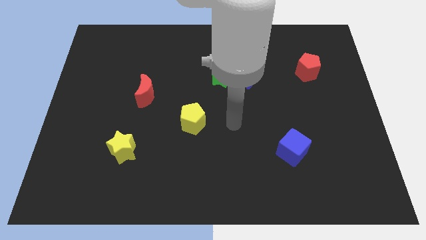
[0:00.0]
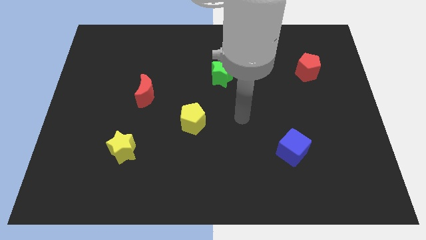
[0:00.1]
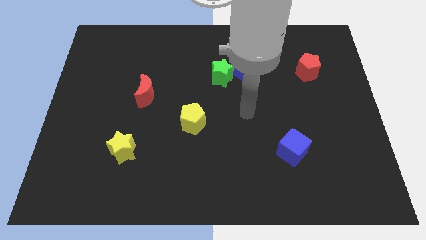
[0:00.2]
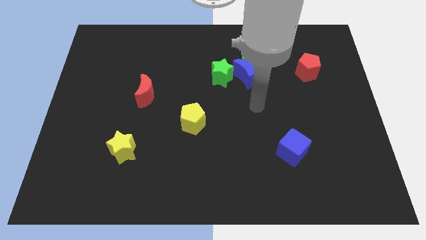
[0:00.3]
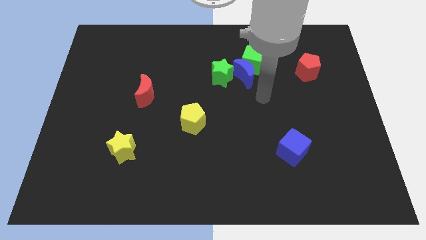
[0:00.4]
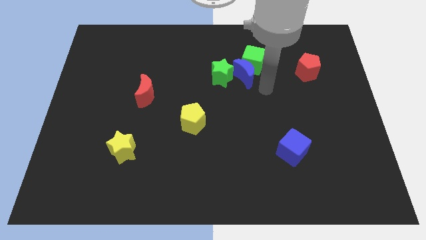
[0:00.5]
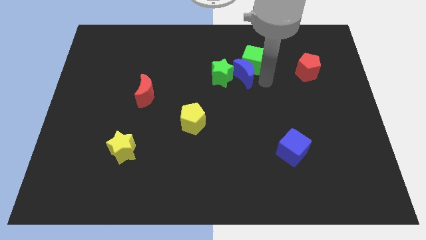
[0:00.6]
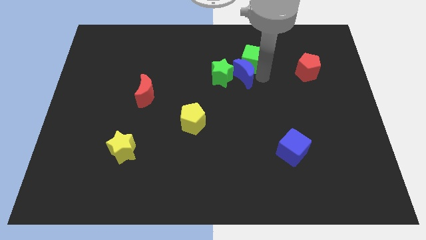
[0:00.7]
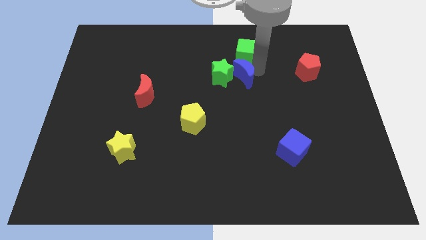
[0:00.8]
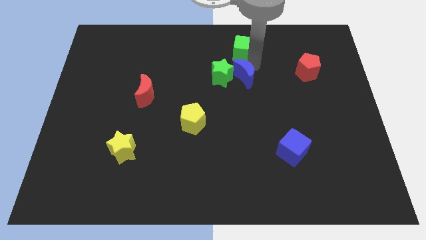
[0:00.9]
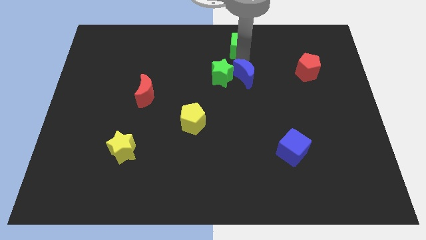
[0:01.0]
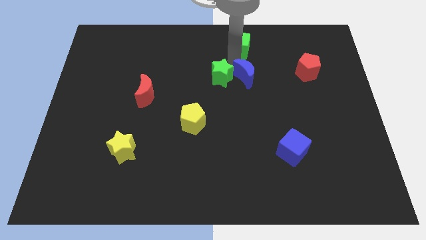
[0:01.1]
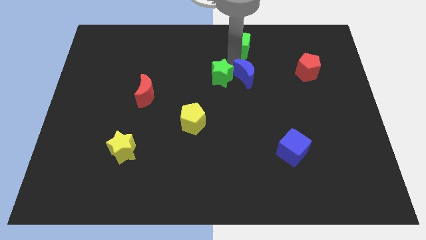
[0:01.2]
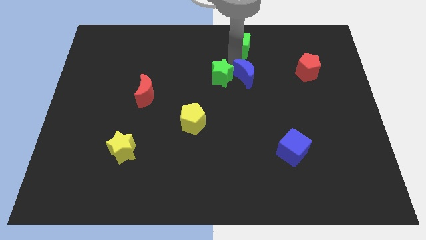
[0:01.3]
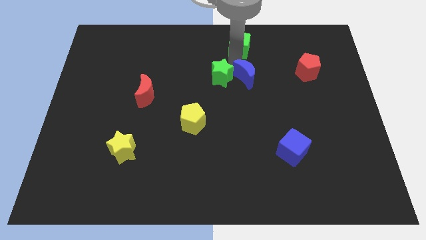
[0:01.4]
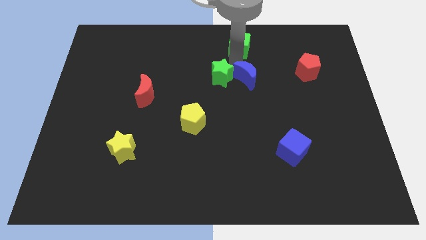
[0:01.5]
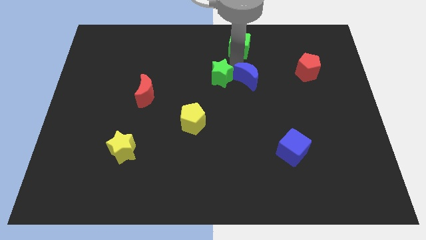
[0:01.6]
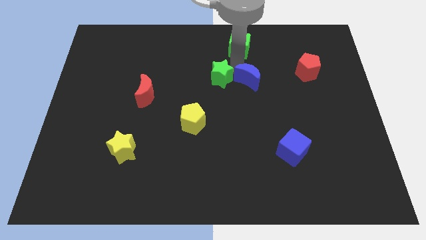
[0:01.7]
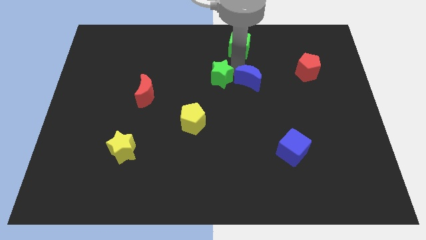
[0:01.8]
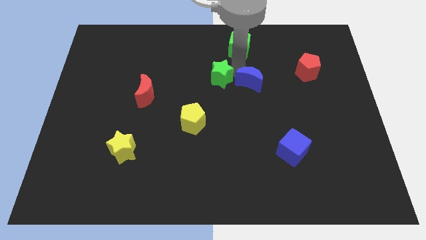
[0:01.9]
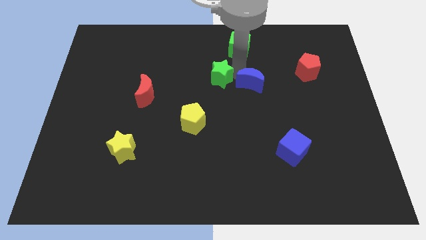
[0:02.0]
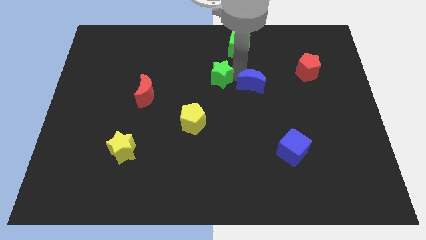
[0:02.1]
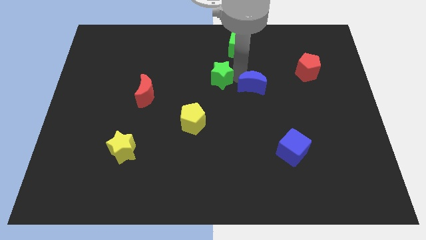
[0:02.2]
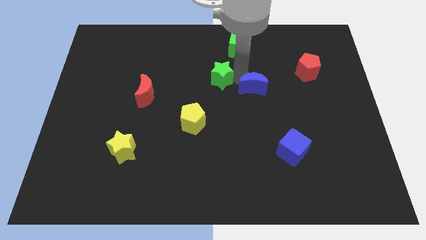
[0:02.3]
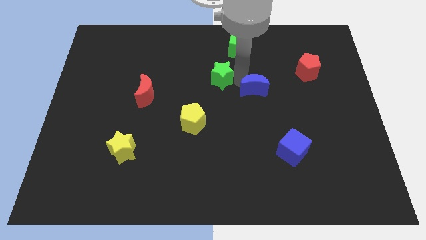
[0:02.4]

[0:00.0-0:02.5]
pull the blue moon apart from the green cube and green star

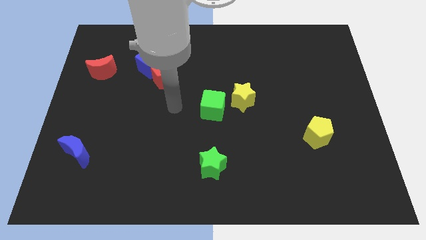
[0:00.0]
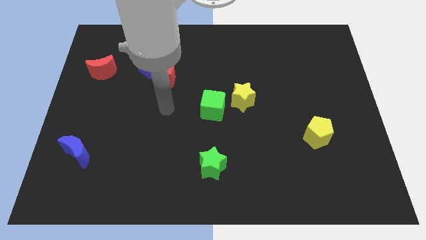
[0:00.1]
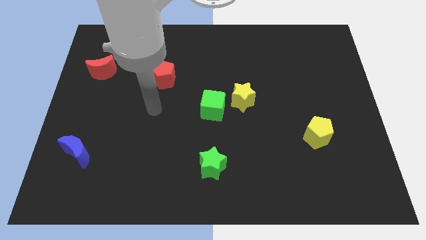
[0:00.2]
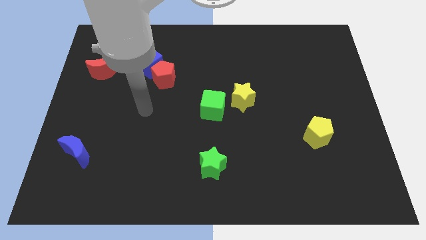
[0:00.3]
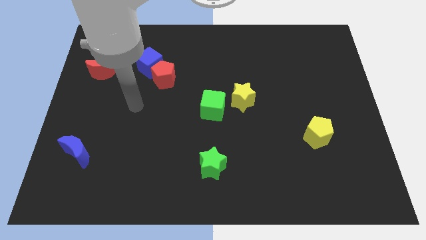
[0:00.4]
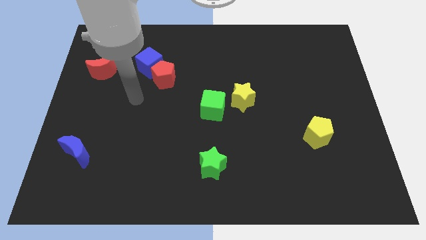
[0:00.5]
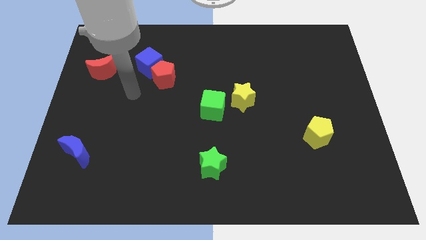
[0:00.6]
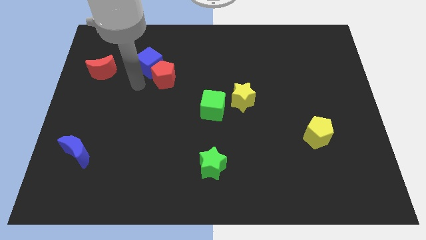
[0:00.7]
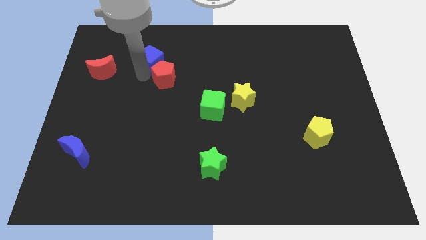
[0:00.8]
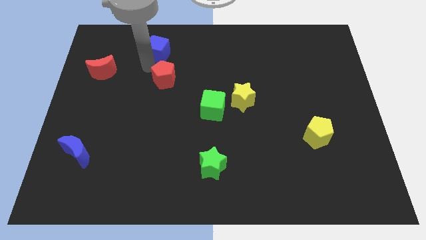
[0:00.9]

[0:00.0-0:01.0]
pull the red pentagon apart from the blue cube

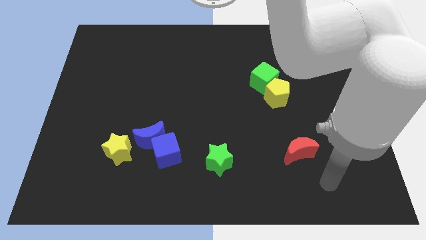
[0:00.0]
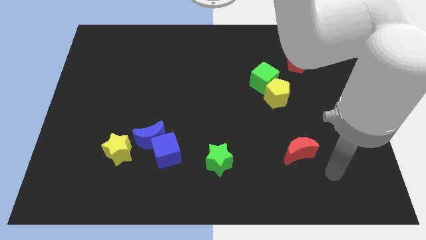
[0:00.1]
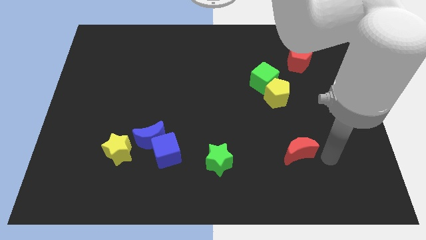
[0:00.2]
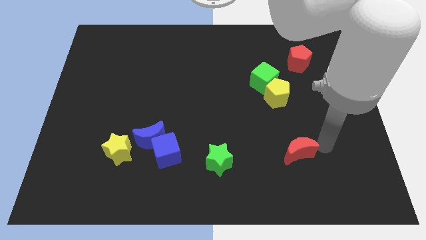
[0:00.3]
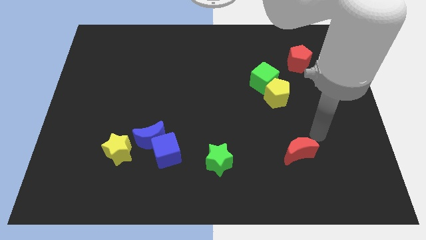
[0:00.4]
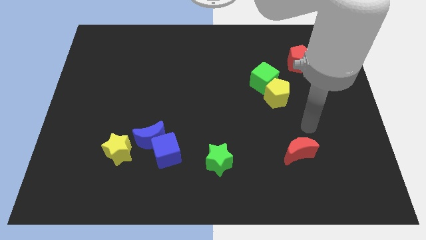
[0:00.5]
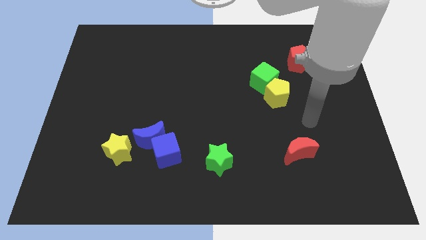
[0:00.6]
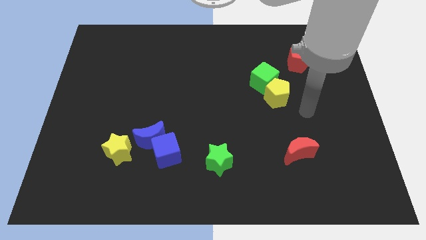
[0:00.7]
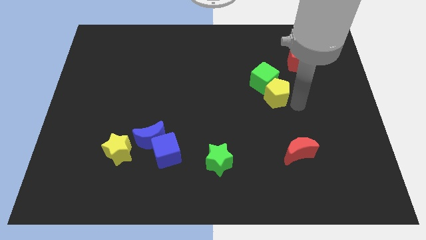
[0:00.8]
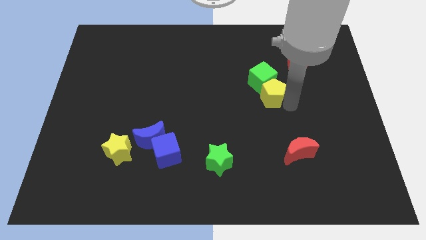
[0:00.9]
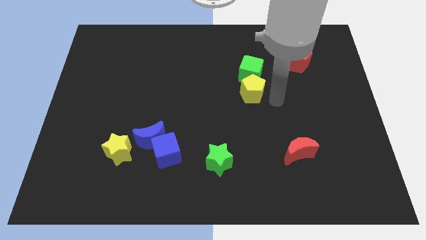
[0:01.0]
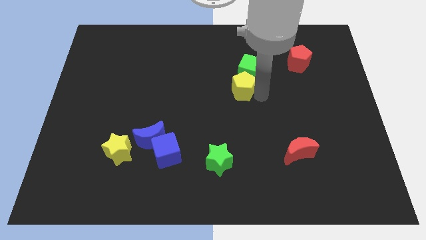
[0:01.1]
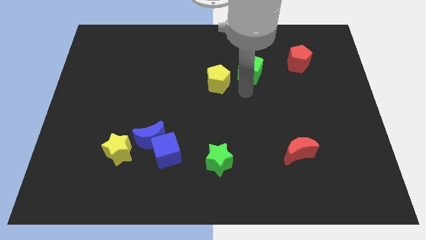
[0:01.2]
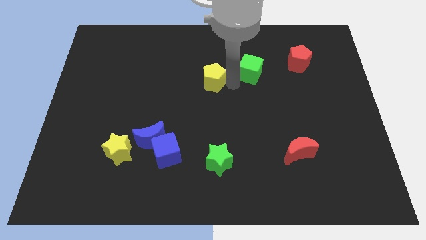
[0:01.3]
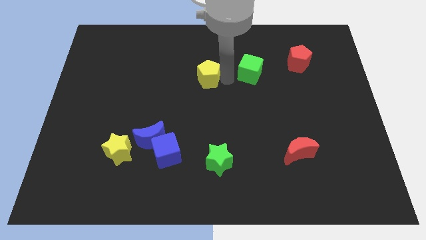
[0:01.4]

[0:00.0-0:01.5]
pull the green cube apart from the yellow pentagon

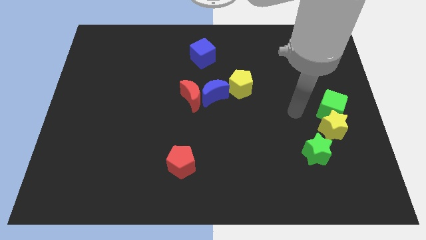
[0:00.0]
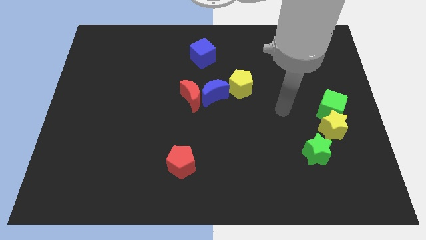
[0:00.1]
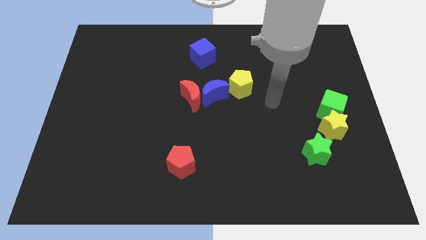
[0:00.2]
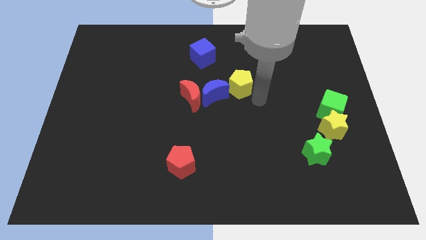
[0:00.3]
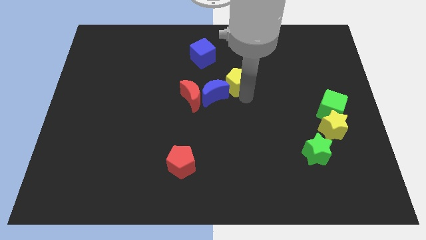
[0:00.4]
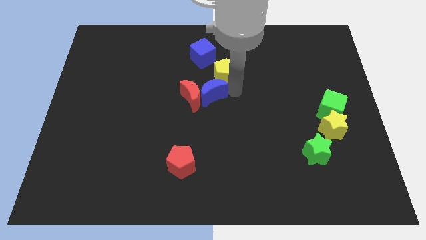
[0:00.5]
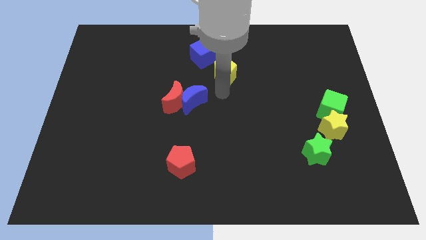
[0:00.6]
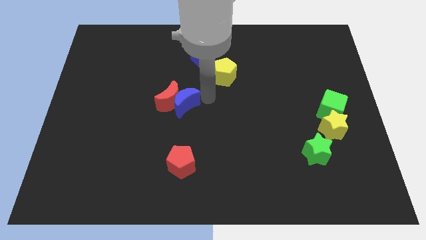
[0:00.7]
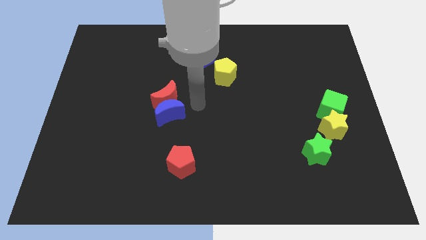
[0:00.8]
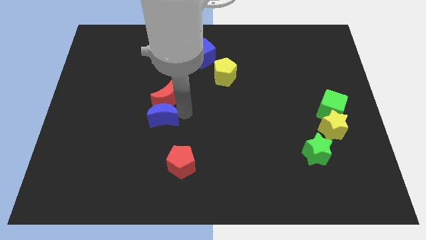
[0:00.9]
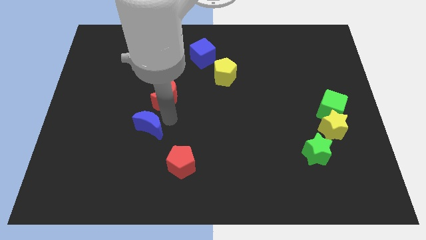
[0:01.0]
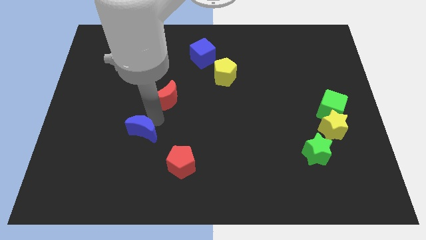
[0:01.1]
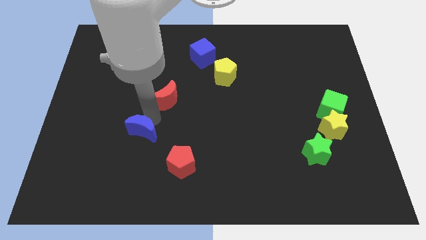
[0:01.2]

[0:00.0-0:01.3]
separate the red moon from the blue moon

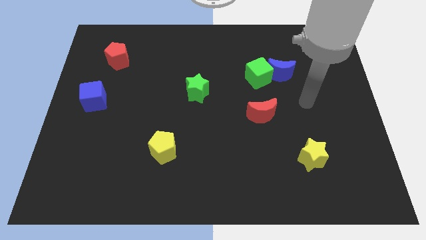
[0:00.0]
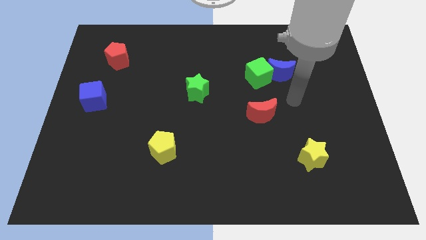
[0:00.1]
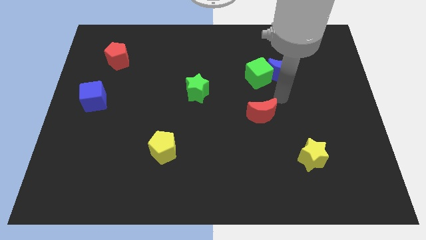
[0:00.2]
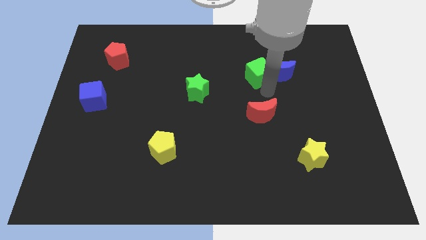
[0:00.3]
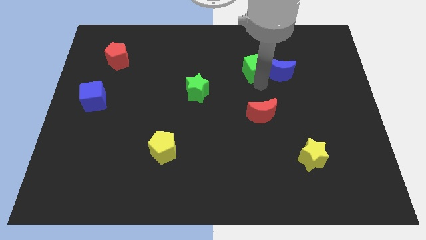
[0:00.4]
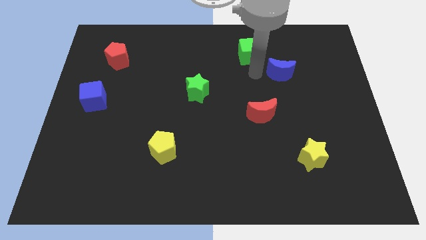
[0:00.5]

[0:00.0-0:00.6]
move the blue moon away from the green cube

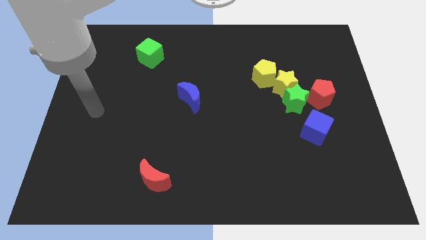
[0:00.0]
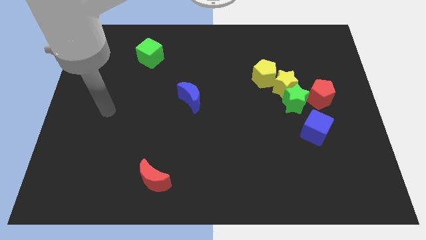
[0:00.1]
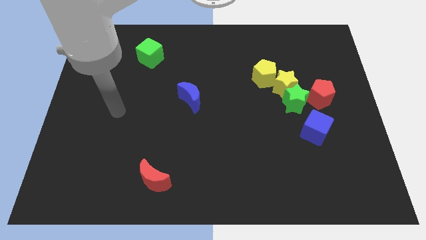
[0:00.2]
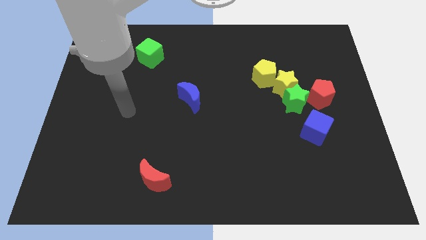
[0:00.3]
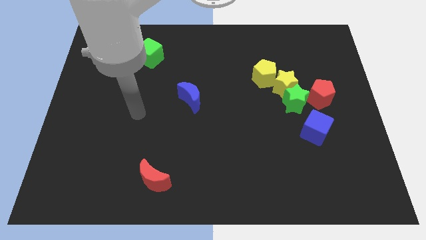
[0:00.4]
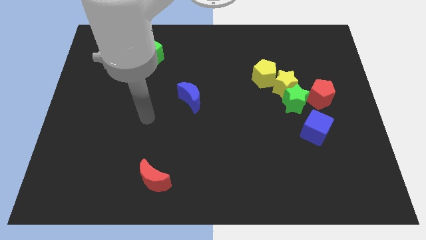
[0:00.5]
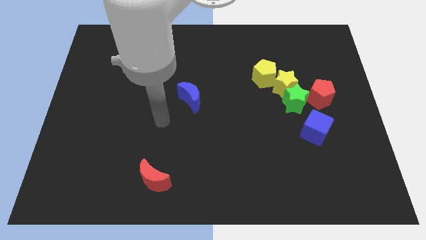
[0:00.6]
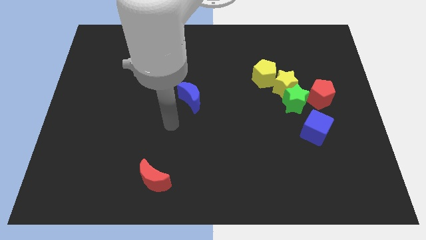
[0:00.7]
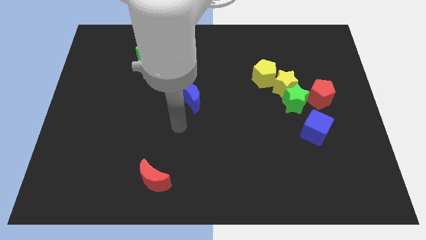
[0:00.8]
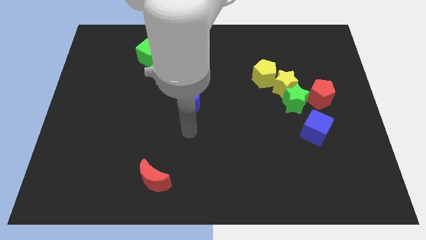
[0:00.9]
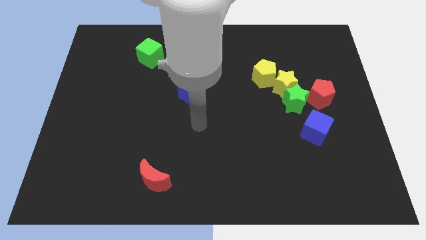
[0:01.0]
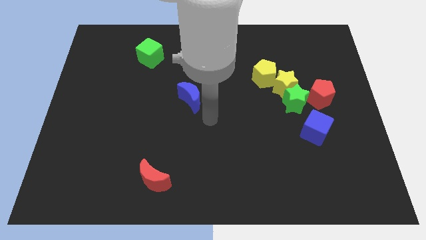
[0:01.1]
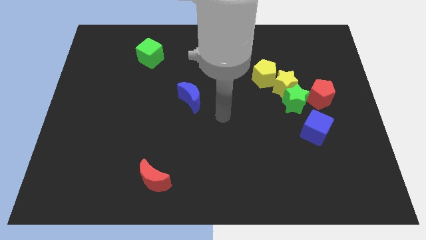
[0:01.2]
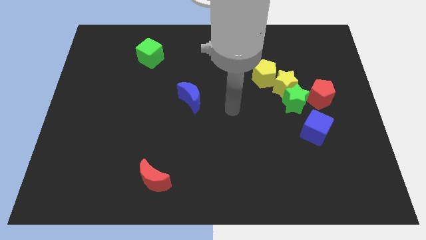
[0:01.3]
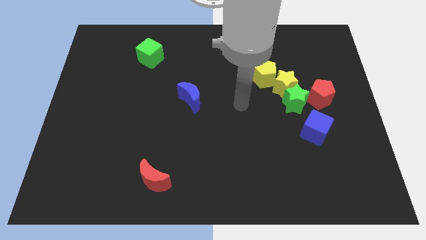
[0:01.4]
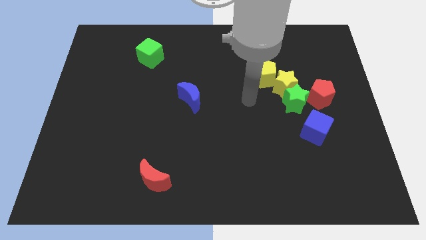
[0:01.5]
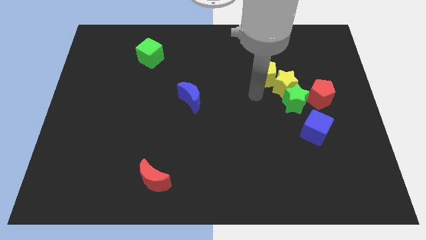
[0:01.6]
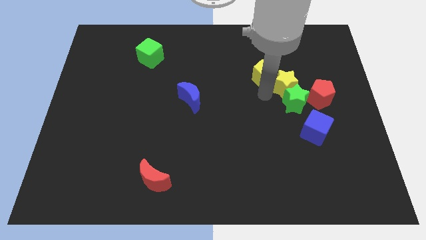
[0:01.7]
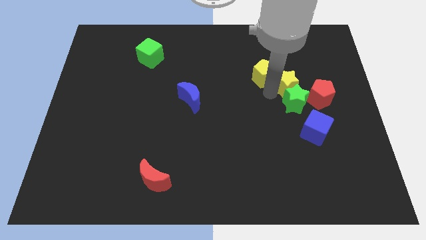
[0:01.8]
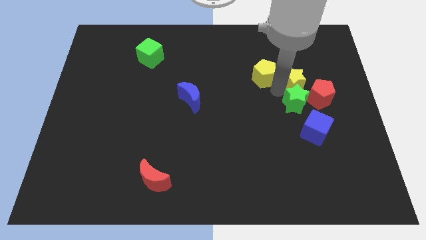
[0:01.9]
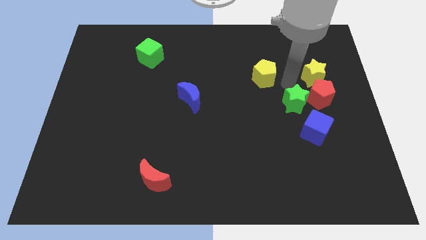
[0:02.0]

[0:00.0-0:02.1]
pull the yellow pentagon apart from the yellow star

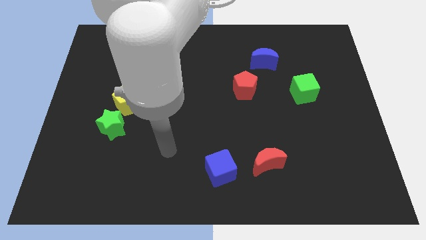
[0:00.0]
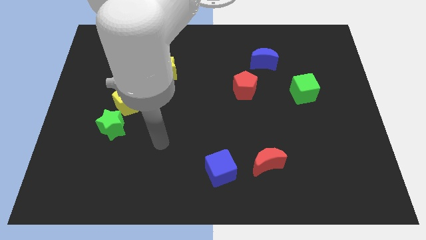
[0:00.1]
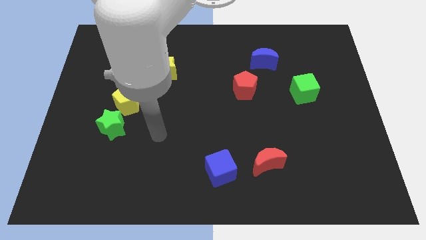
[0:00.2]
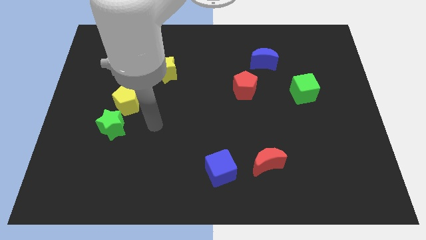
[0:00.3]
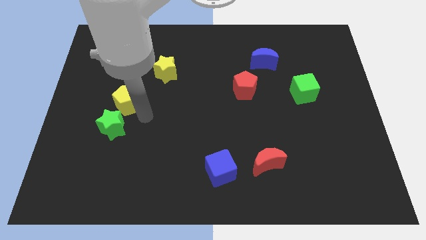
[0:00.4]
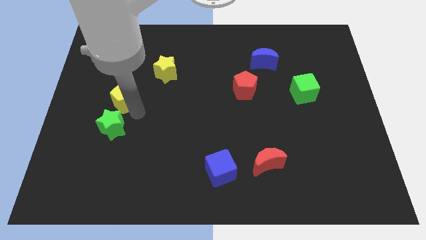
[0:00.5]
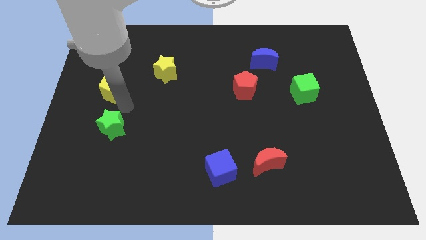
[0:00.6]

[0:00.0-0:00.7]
pull the green star apart from the yellow pentagon
